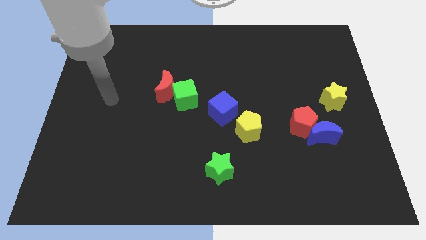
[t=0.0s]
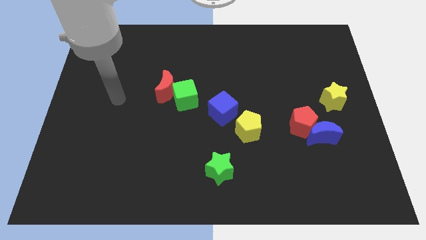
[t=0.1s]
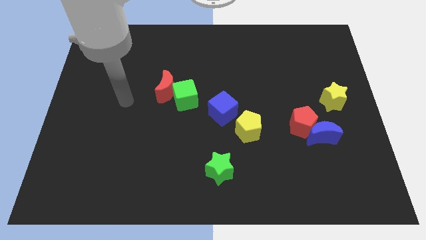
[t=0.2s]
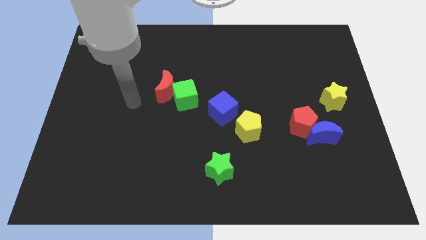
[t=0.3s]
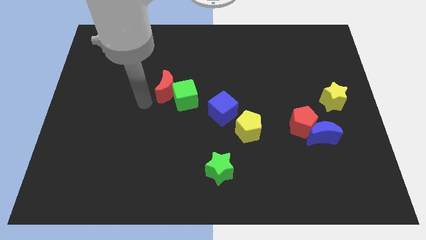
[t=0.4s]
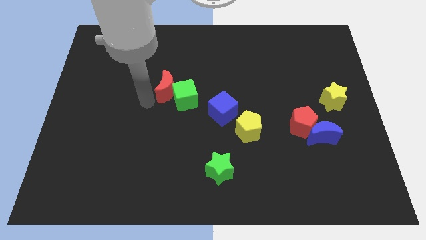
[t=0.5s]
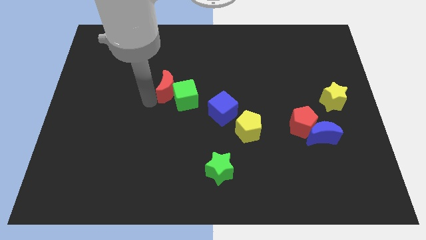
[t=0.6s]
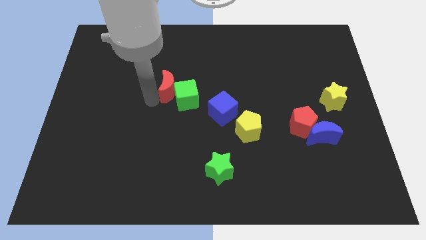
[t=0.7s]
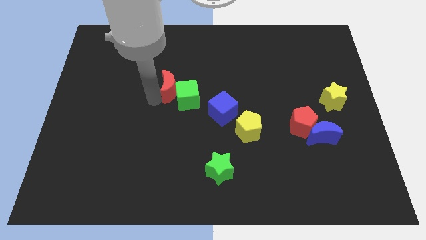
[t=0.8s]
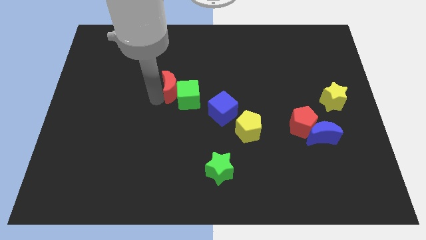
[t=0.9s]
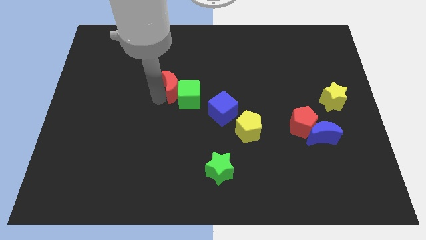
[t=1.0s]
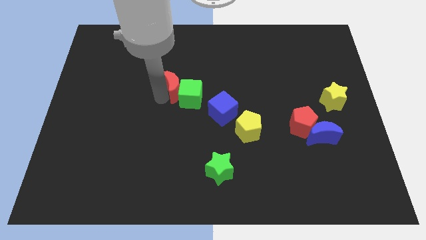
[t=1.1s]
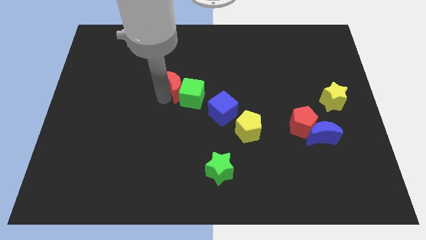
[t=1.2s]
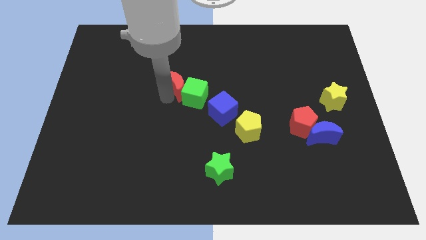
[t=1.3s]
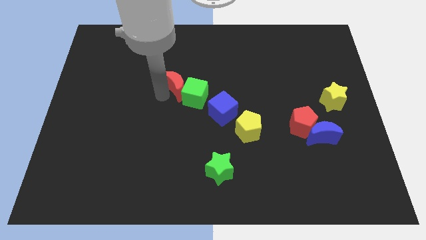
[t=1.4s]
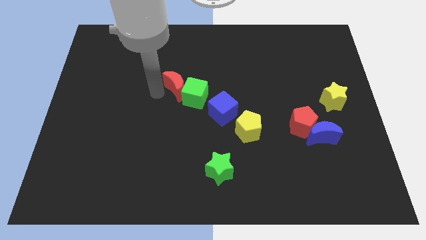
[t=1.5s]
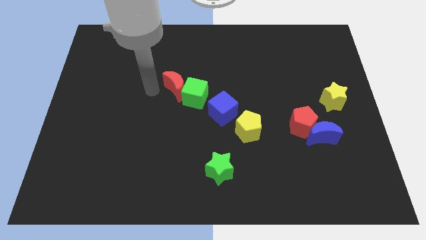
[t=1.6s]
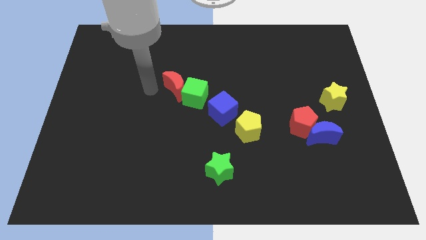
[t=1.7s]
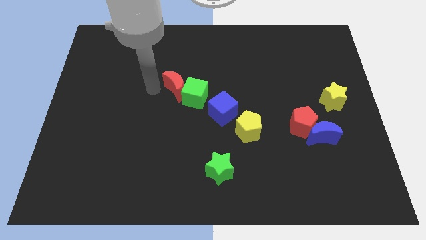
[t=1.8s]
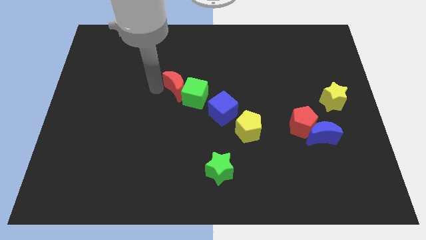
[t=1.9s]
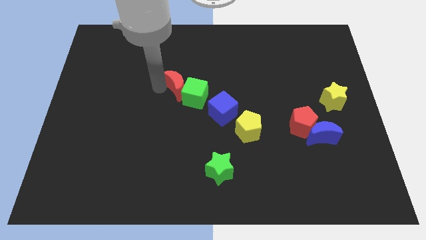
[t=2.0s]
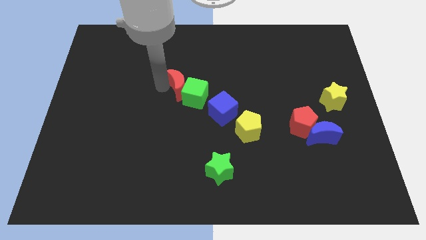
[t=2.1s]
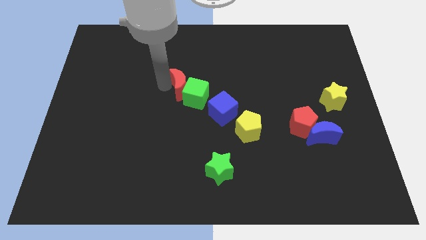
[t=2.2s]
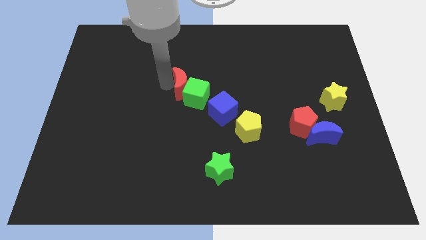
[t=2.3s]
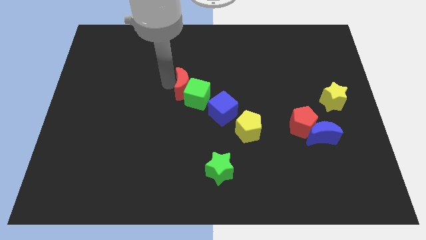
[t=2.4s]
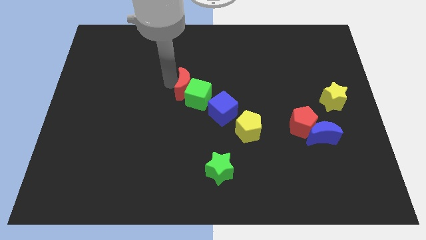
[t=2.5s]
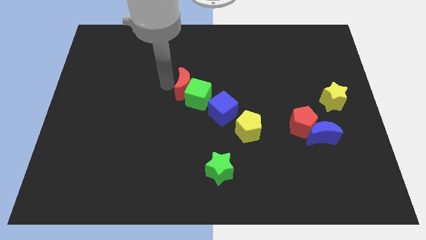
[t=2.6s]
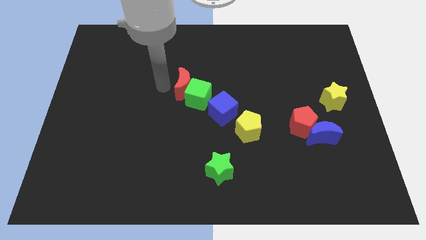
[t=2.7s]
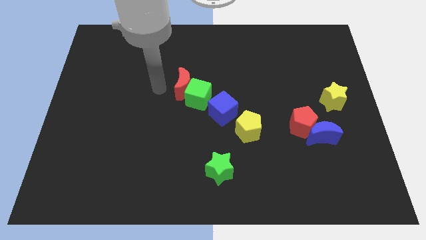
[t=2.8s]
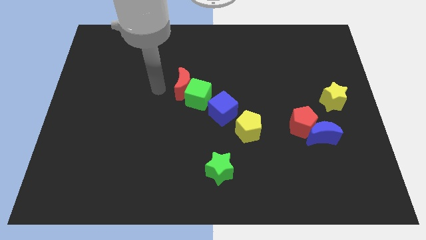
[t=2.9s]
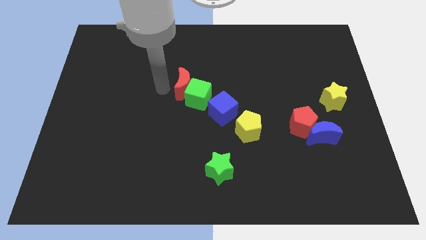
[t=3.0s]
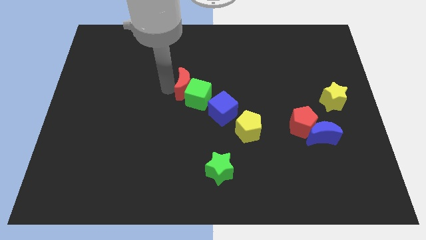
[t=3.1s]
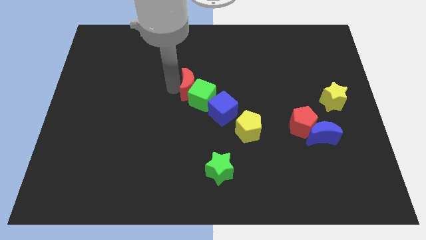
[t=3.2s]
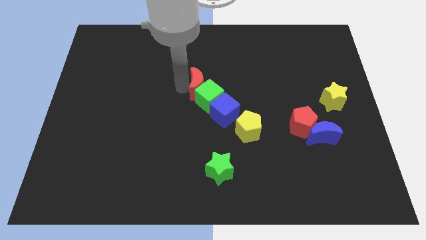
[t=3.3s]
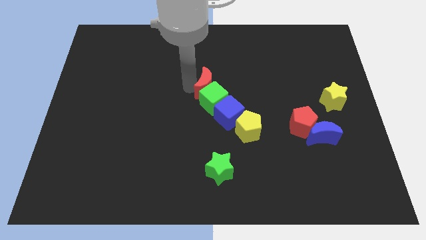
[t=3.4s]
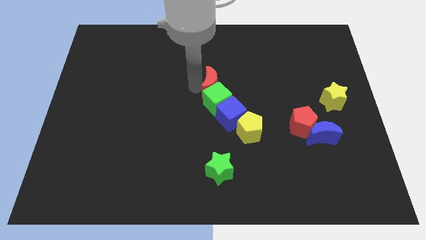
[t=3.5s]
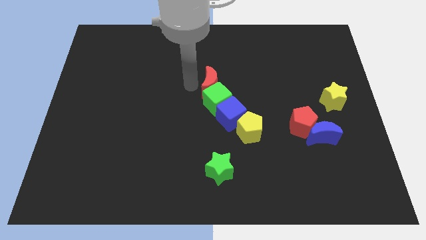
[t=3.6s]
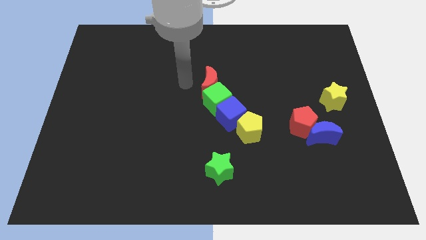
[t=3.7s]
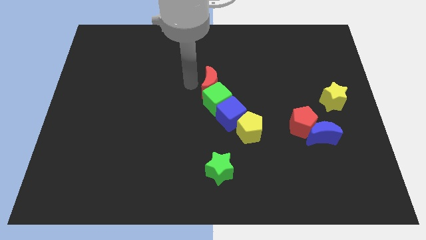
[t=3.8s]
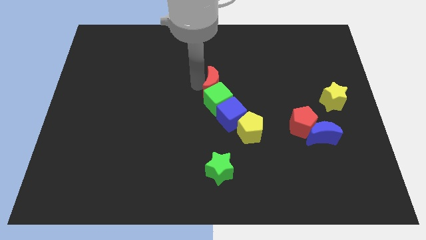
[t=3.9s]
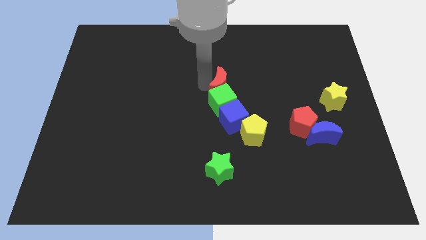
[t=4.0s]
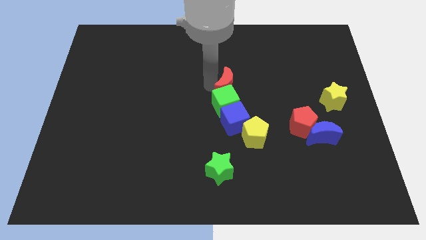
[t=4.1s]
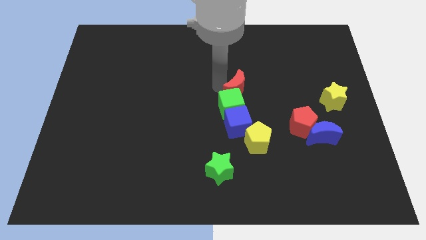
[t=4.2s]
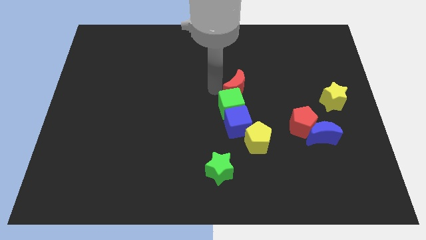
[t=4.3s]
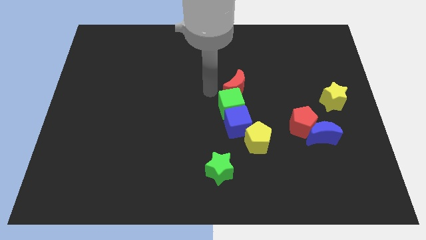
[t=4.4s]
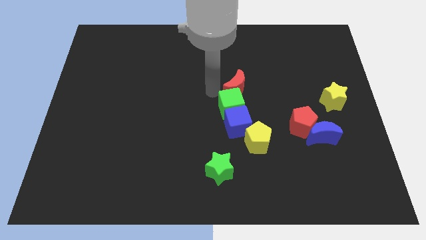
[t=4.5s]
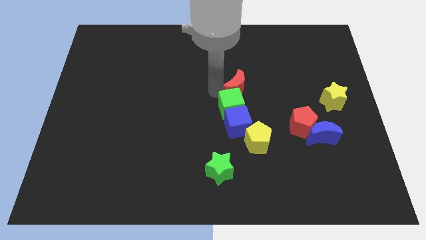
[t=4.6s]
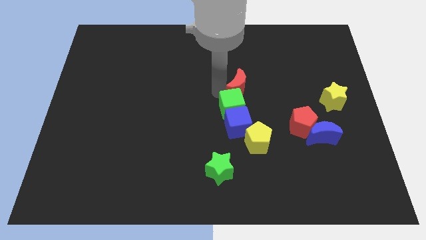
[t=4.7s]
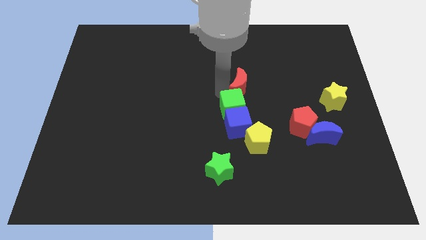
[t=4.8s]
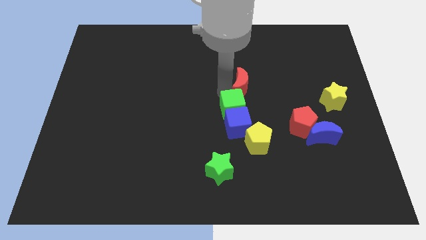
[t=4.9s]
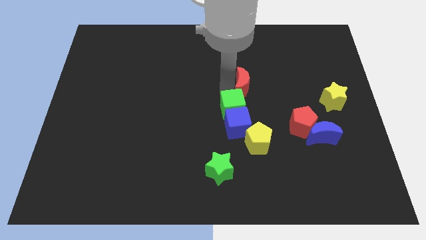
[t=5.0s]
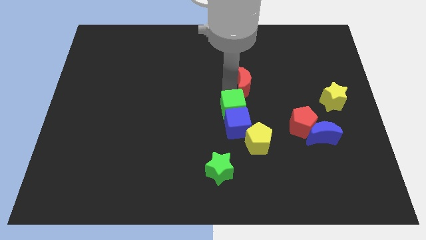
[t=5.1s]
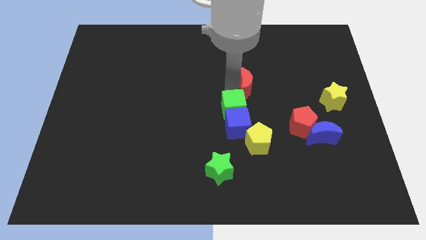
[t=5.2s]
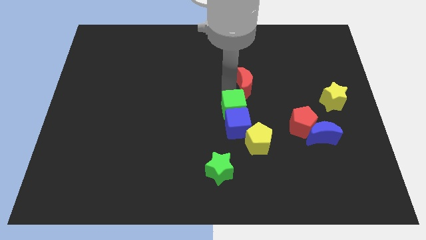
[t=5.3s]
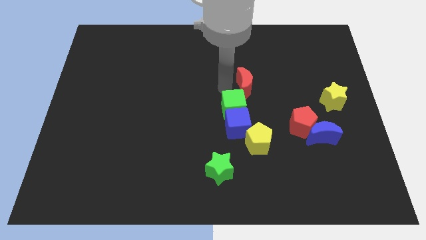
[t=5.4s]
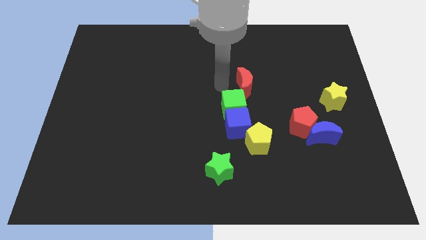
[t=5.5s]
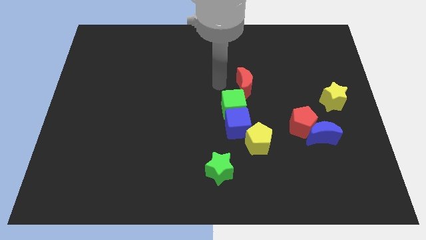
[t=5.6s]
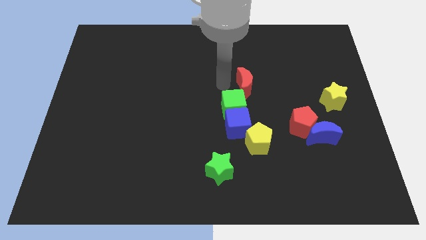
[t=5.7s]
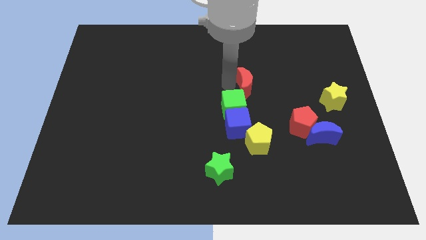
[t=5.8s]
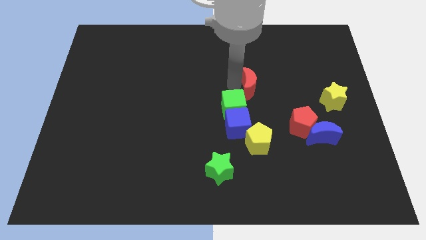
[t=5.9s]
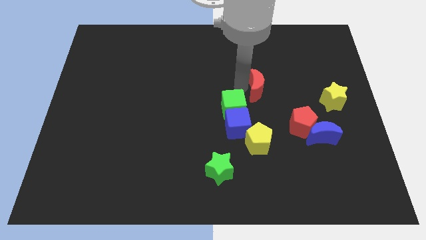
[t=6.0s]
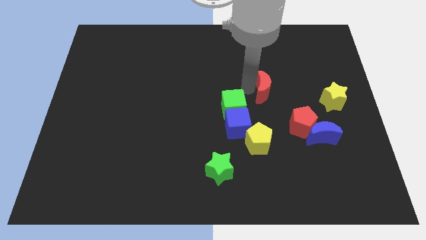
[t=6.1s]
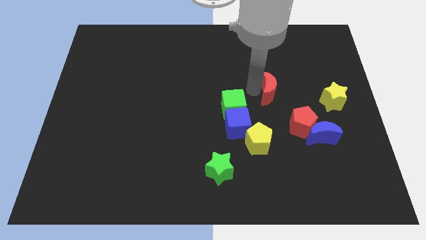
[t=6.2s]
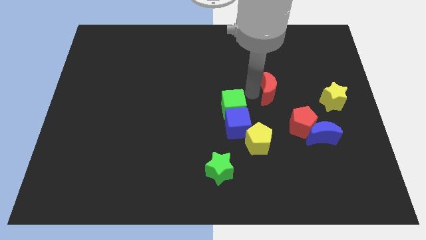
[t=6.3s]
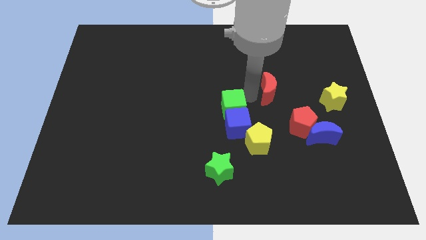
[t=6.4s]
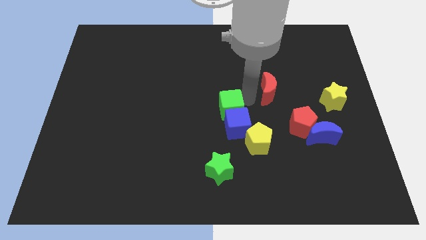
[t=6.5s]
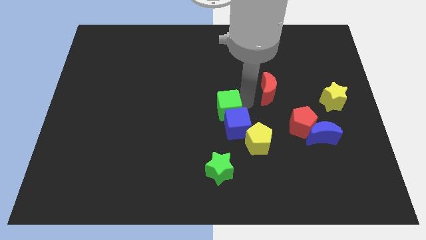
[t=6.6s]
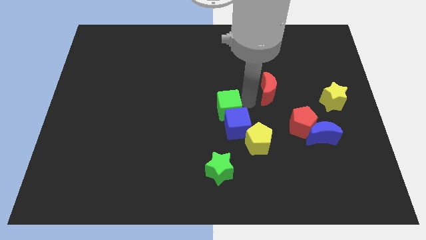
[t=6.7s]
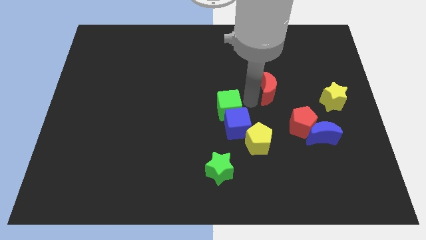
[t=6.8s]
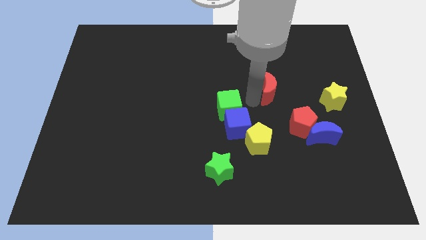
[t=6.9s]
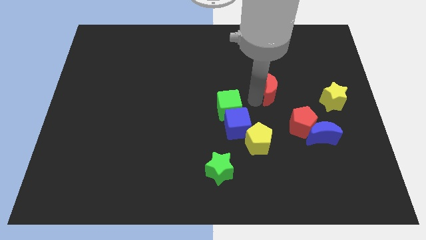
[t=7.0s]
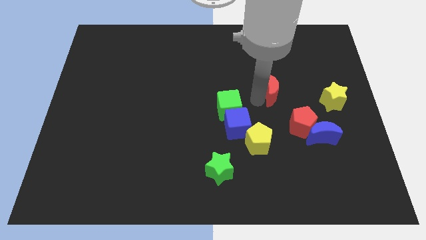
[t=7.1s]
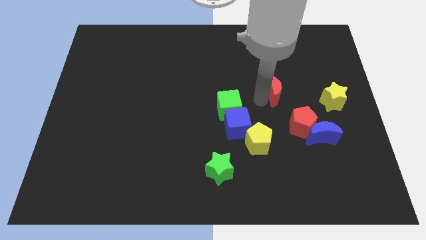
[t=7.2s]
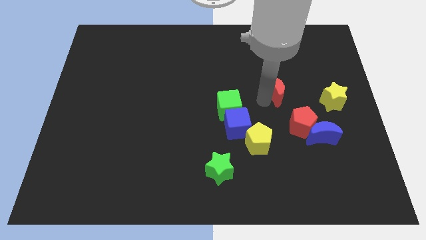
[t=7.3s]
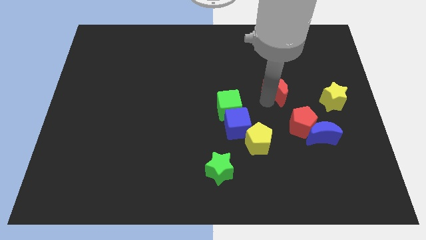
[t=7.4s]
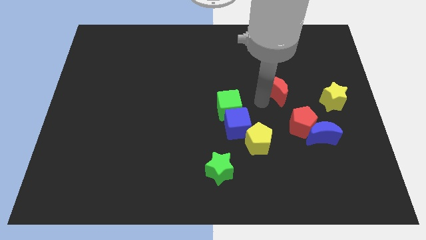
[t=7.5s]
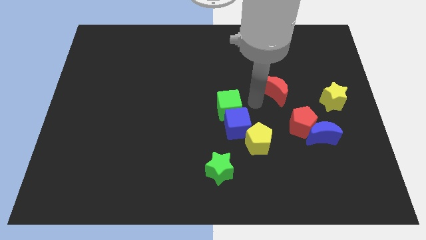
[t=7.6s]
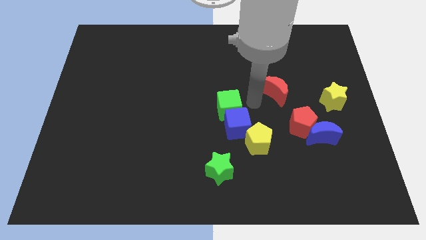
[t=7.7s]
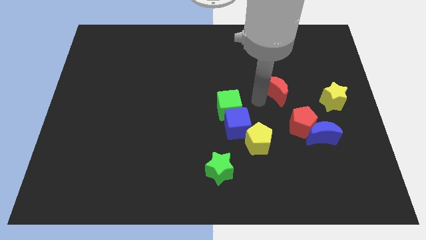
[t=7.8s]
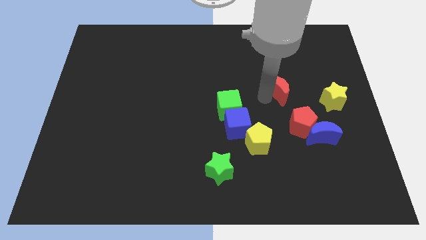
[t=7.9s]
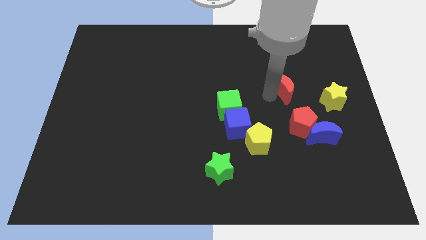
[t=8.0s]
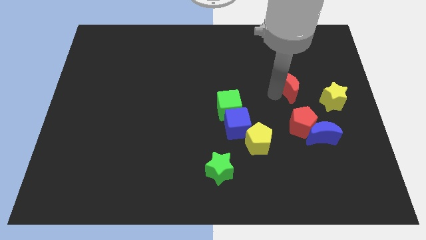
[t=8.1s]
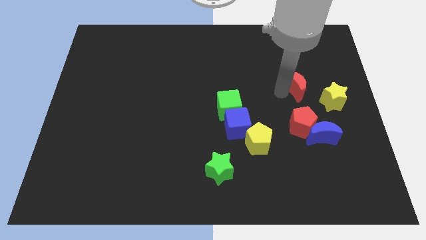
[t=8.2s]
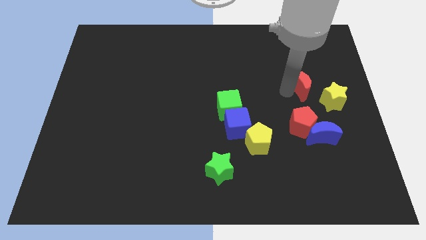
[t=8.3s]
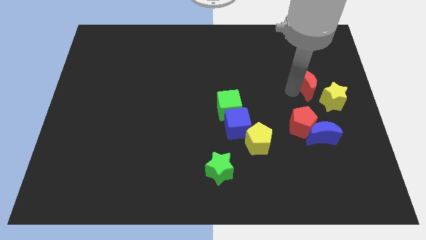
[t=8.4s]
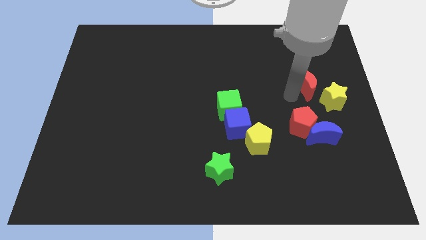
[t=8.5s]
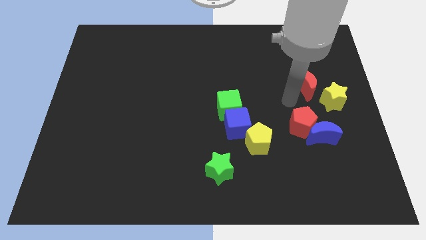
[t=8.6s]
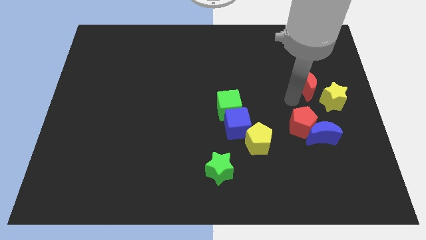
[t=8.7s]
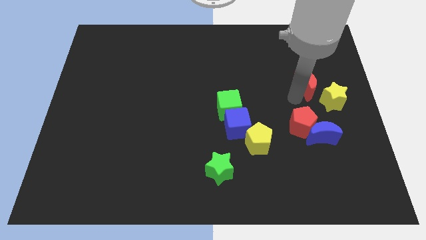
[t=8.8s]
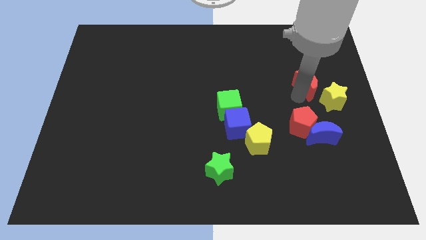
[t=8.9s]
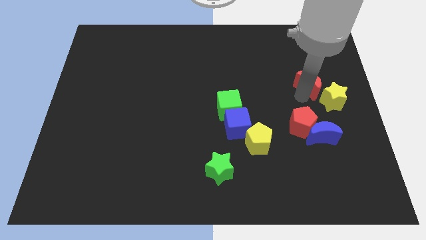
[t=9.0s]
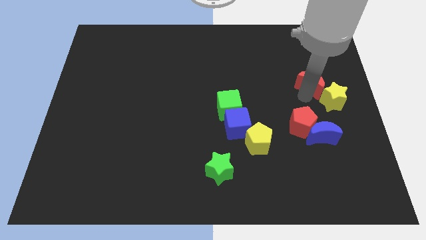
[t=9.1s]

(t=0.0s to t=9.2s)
move the red moon to the top side of the yellow star
